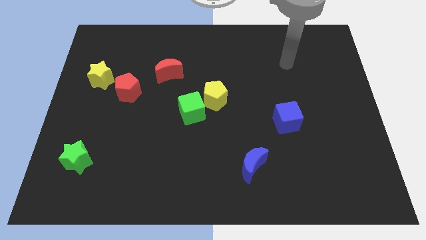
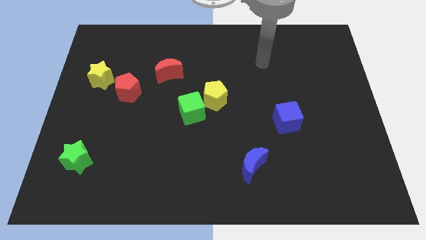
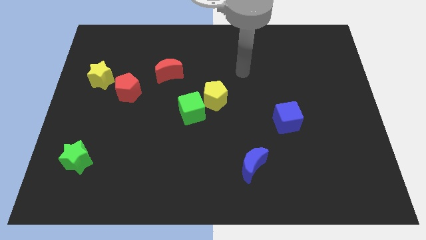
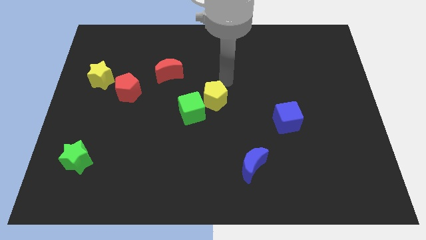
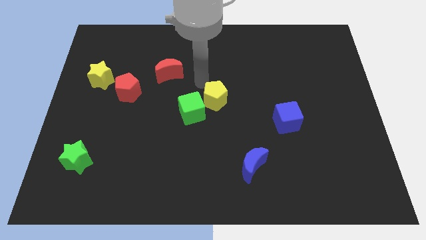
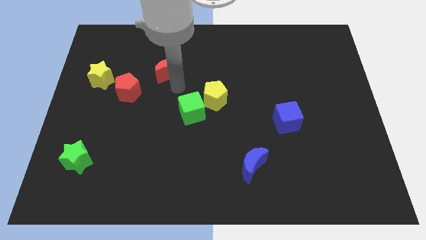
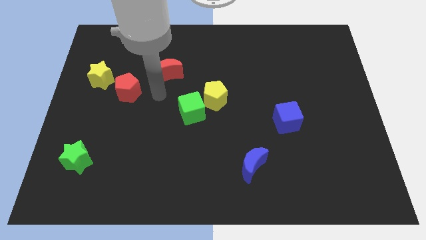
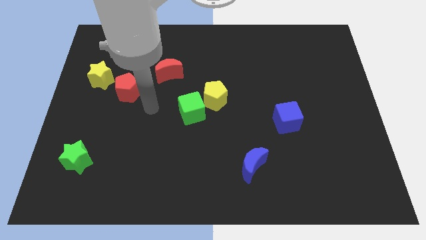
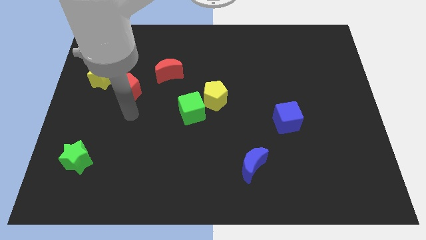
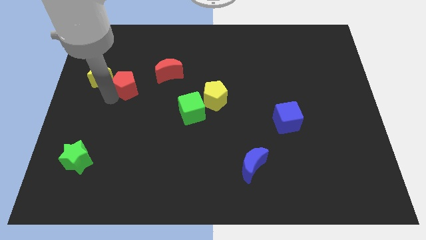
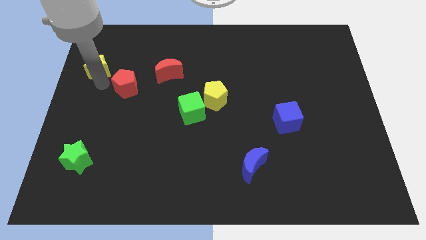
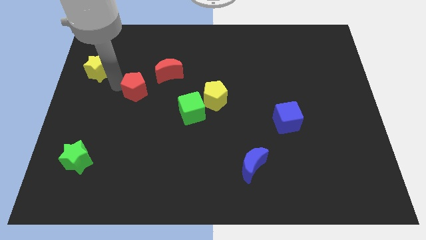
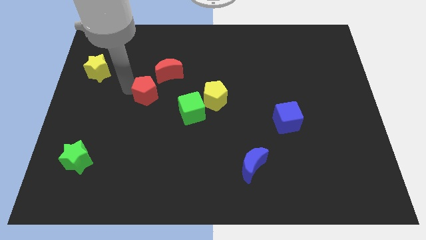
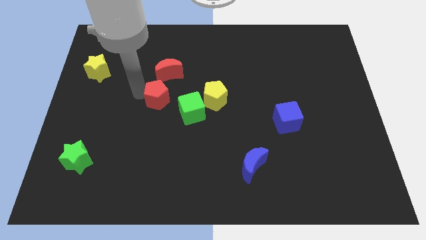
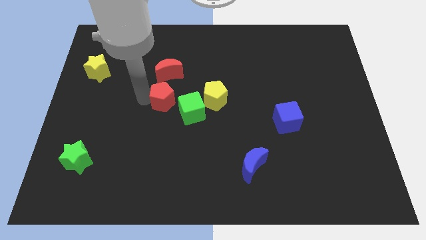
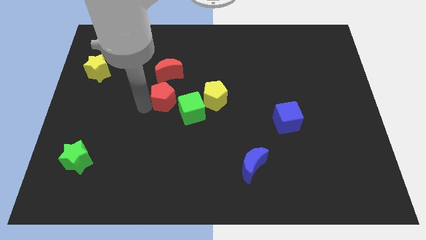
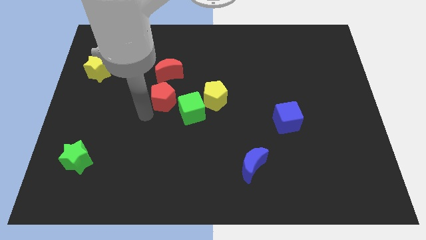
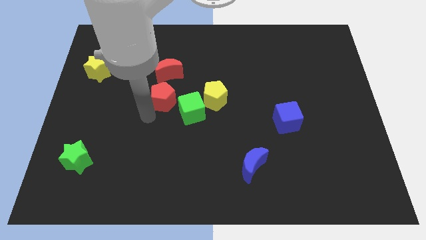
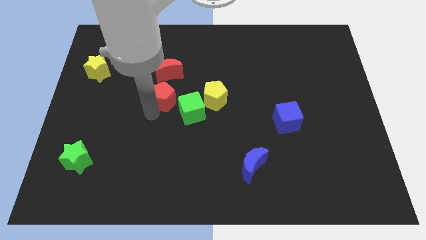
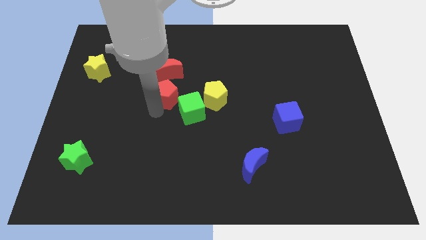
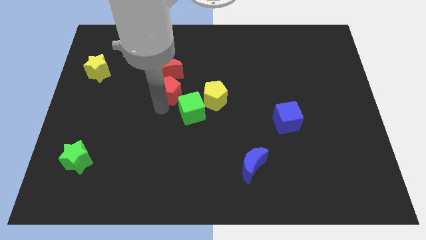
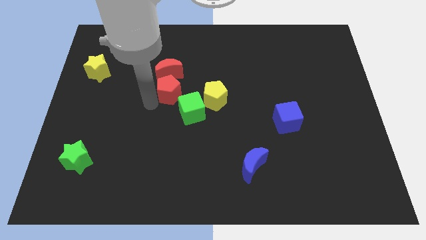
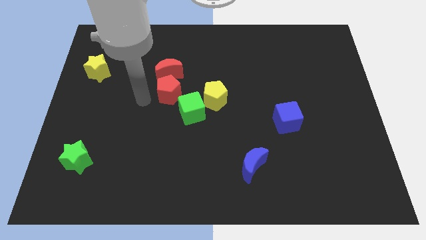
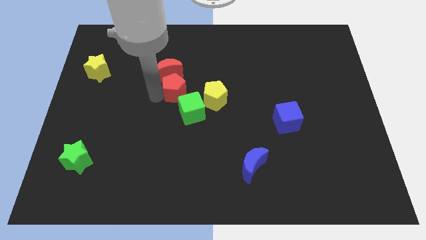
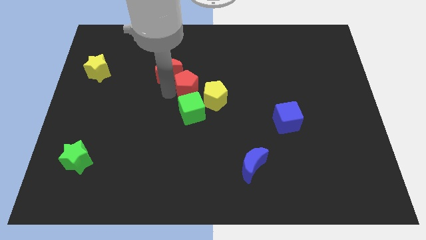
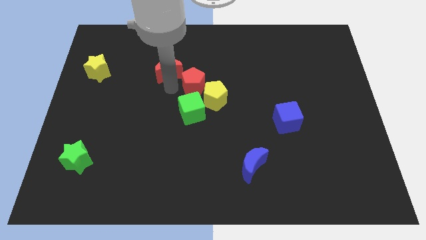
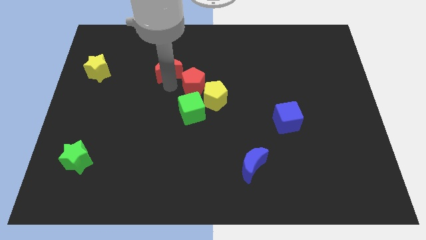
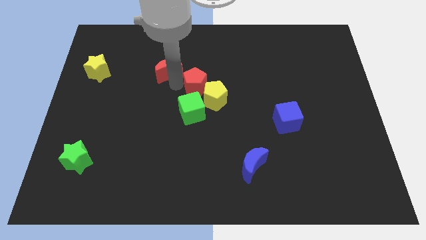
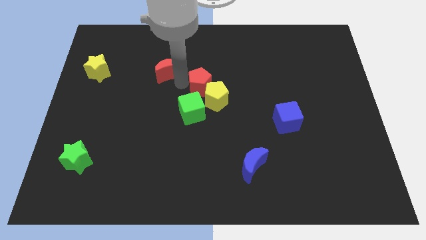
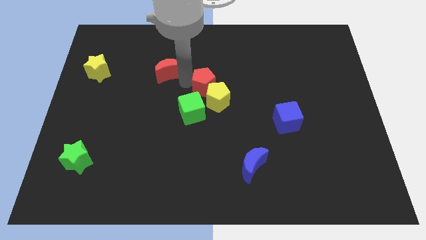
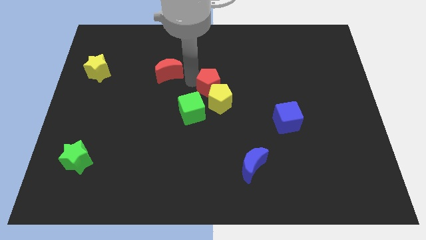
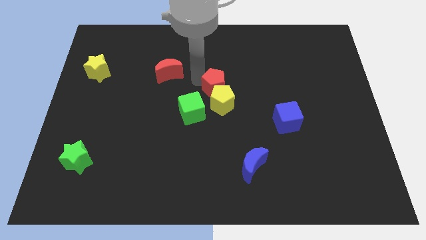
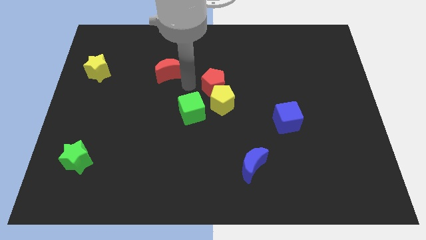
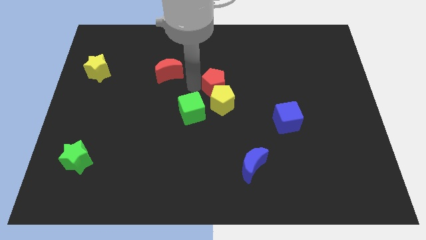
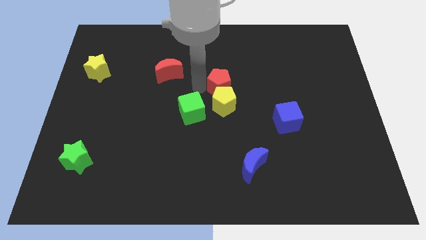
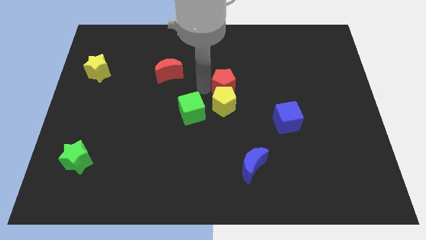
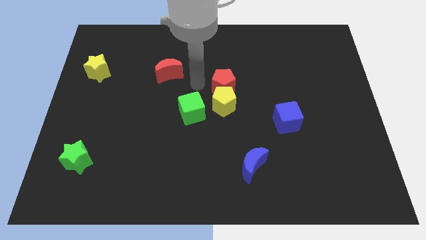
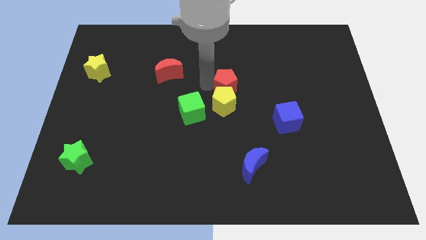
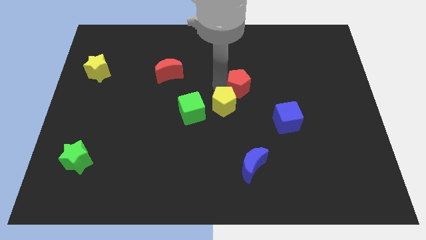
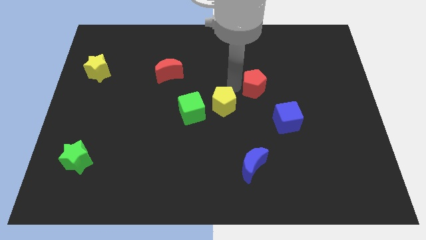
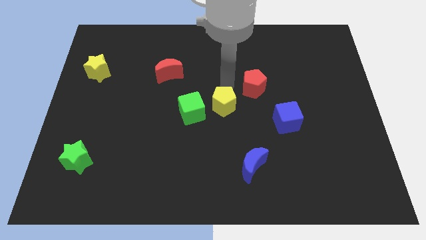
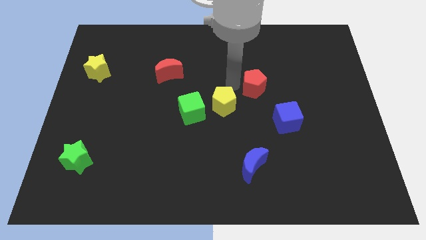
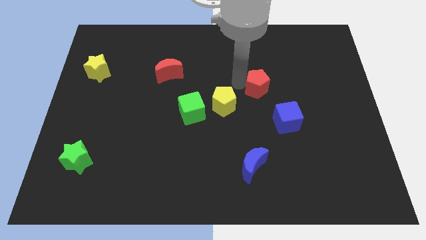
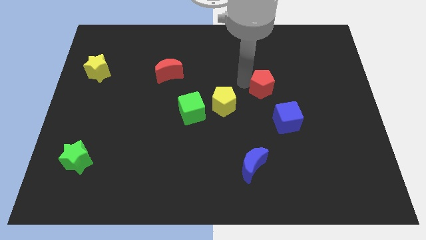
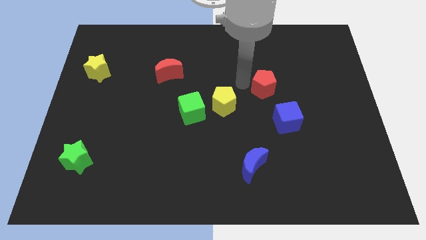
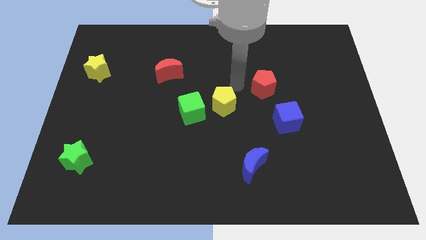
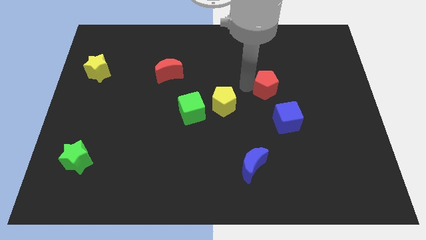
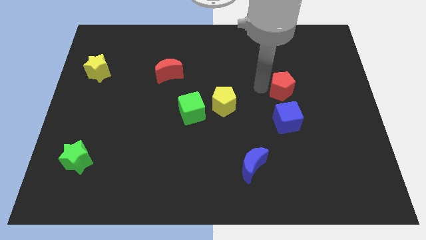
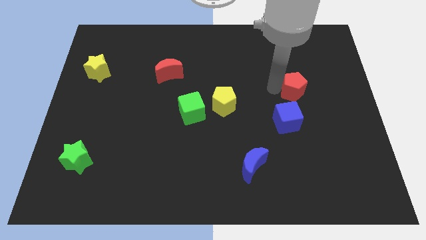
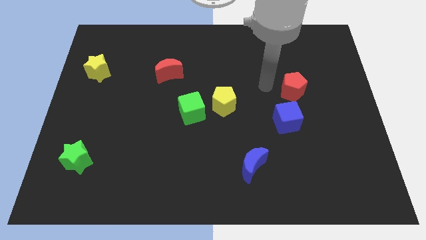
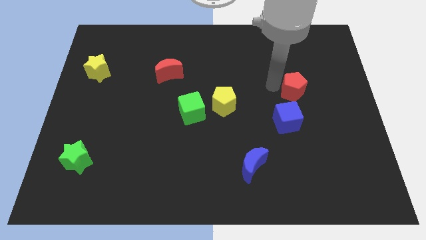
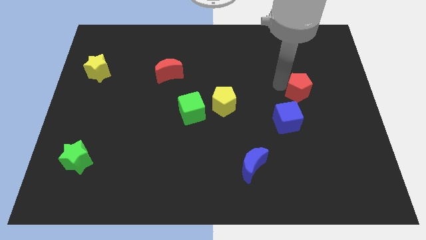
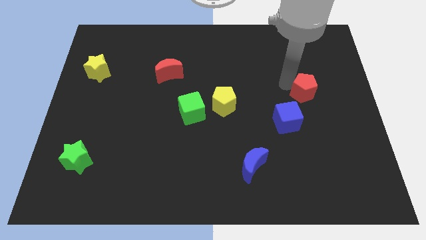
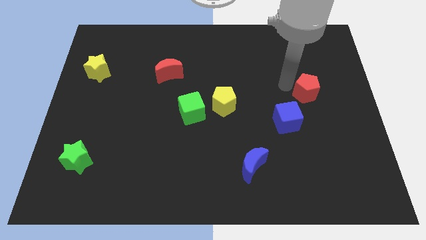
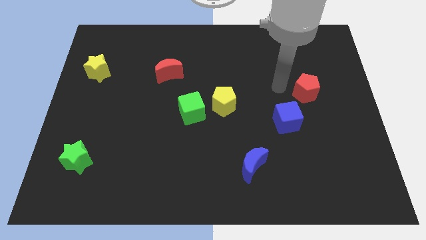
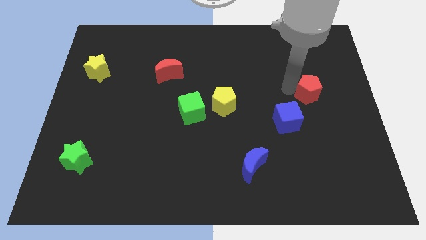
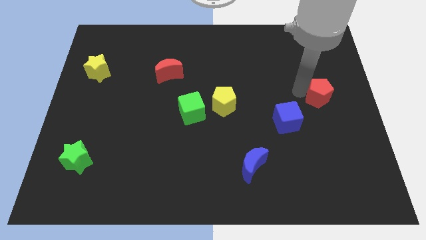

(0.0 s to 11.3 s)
move the red pentagon to the right side

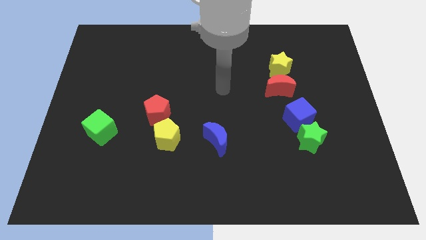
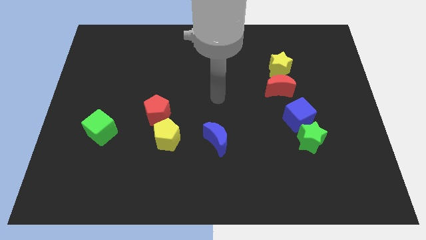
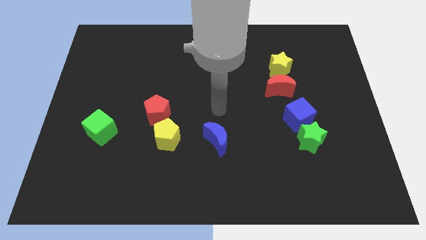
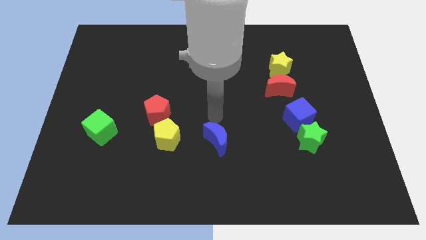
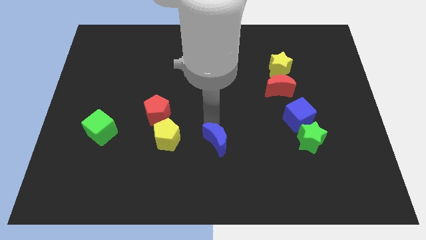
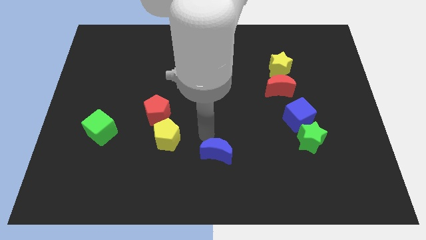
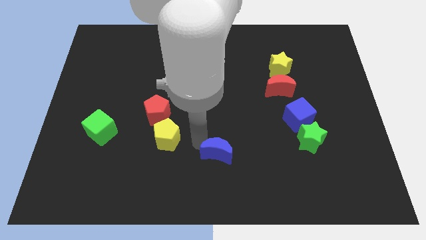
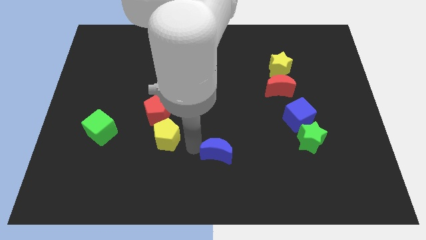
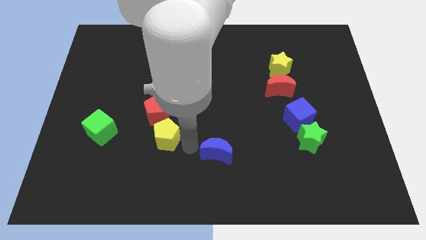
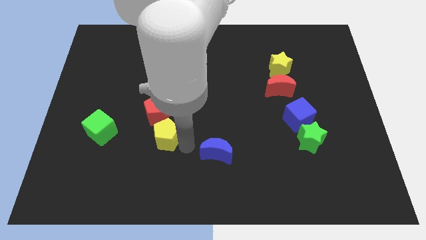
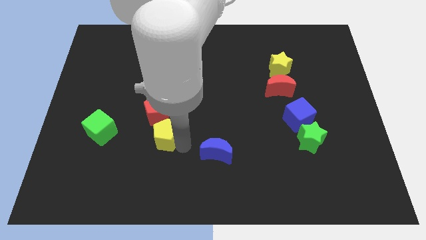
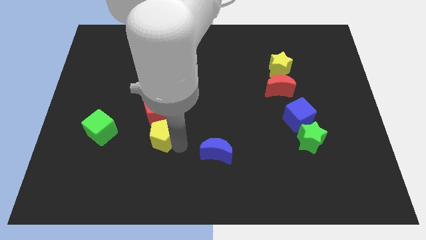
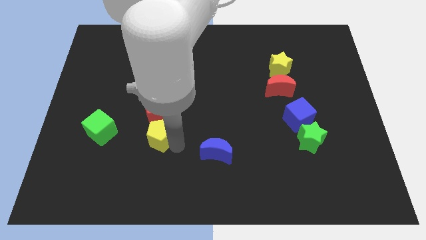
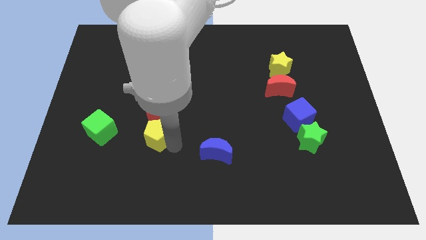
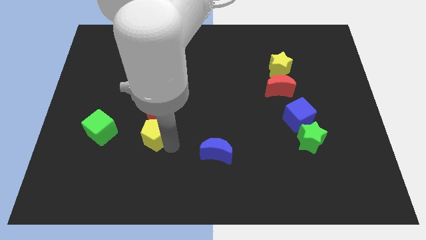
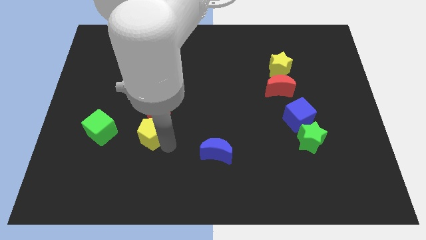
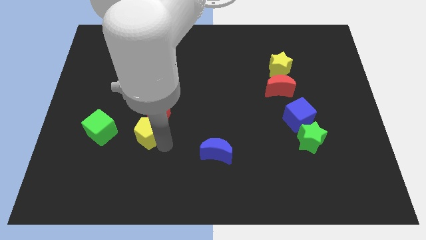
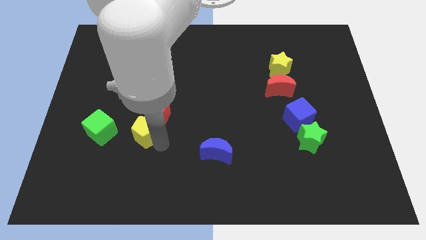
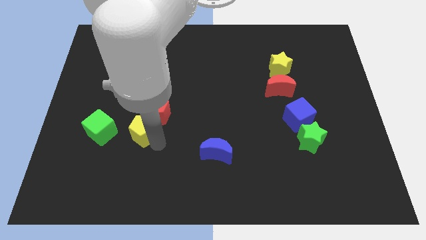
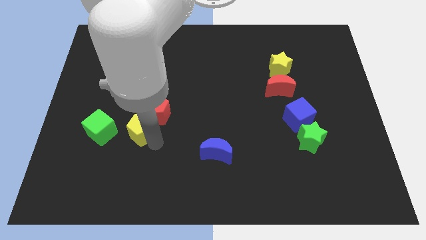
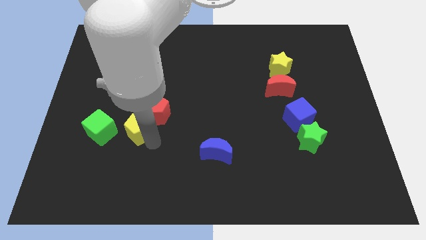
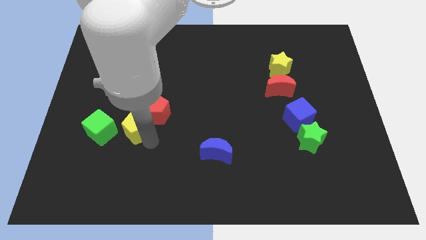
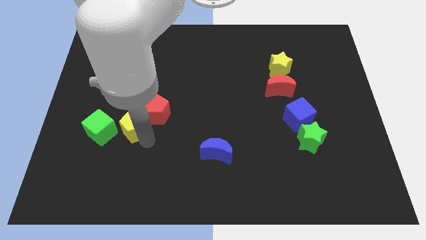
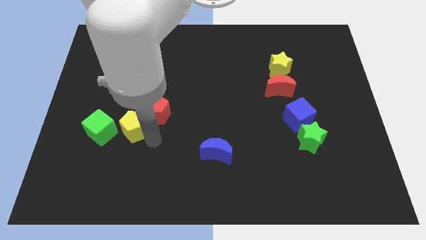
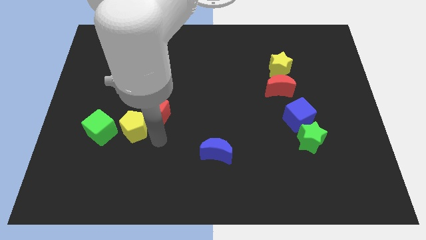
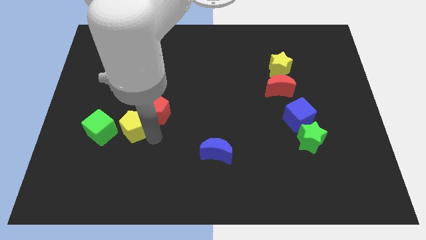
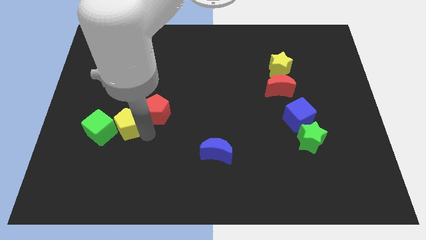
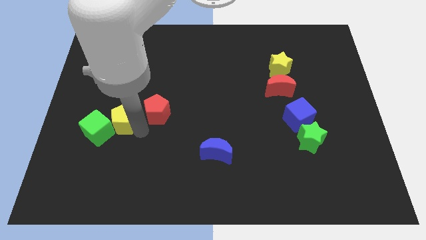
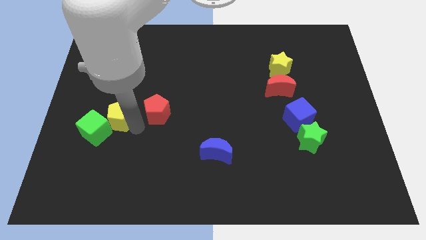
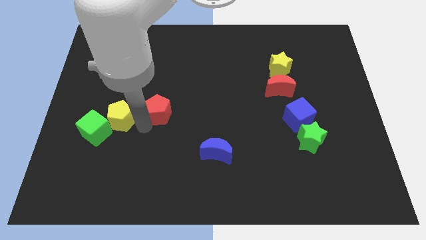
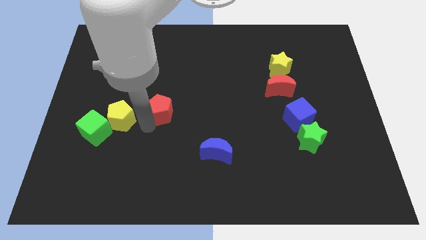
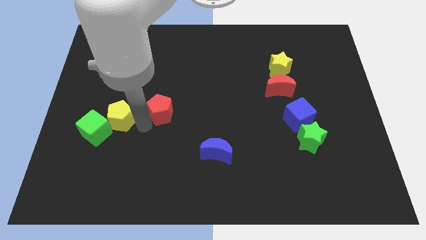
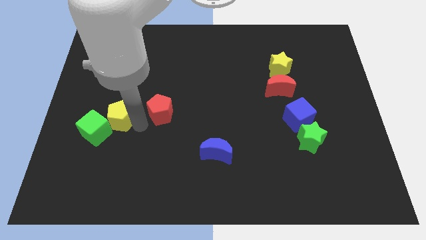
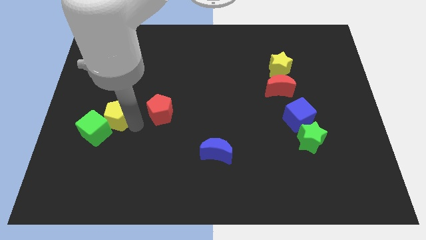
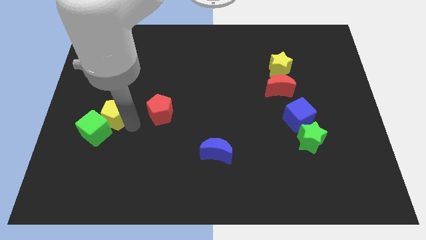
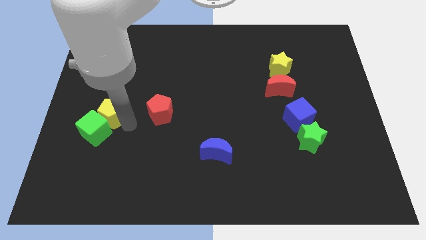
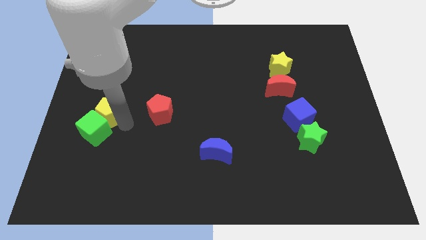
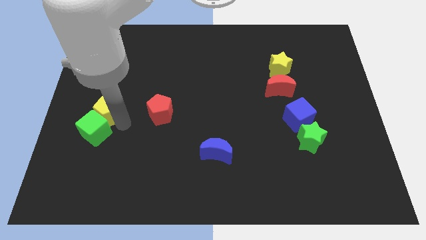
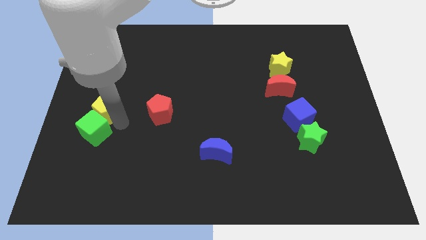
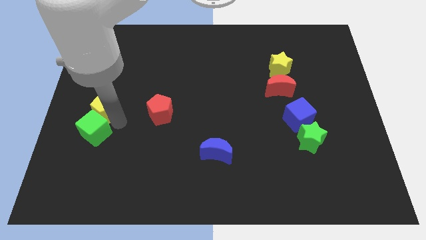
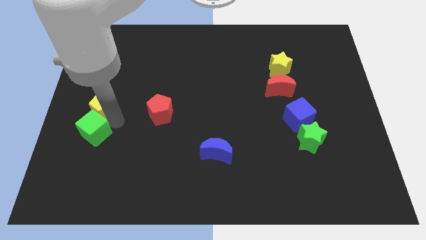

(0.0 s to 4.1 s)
move the yellow pentagon to the left side
